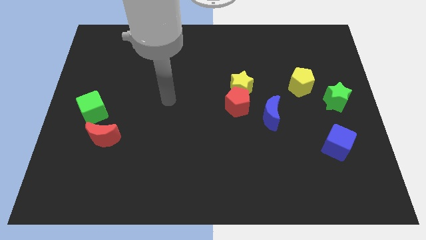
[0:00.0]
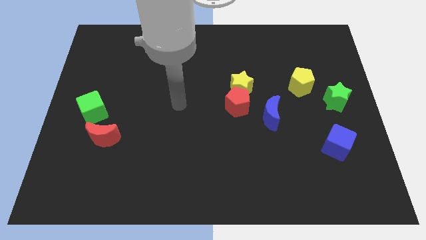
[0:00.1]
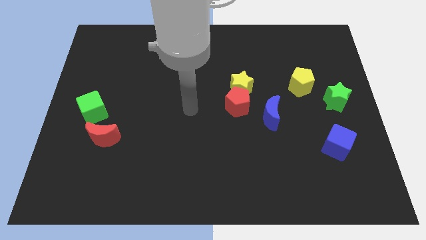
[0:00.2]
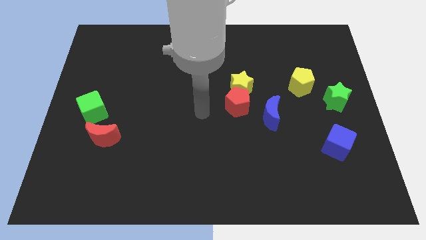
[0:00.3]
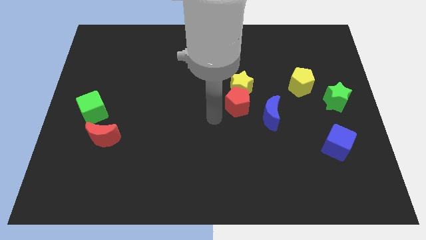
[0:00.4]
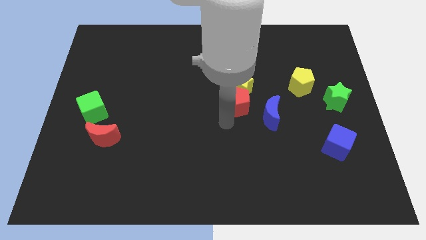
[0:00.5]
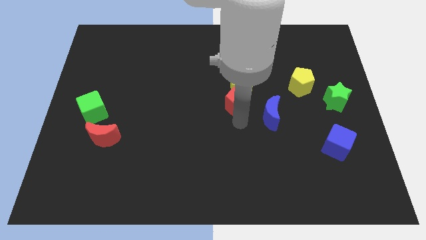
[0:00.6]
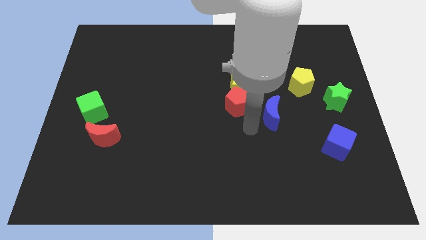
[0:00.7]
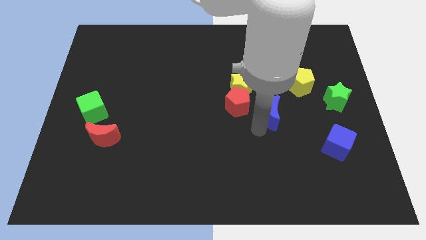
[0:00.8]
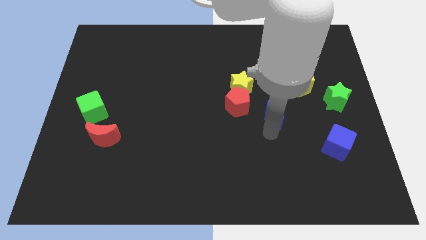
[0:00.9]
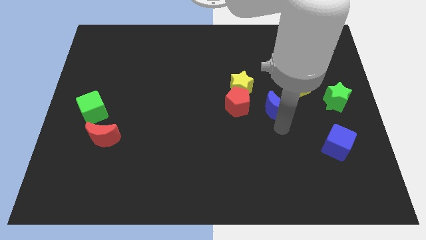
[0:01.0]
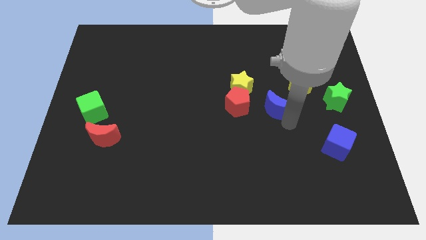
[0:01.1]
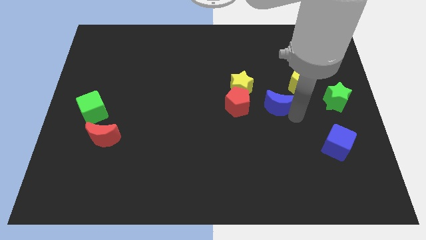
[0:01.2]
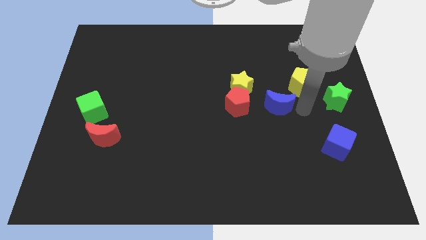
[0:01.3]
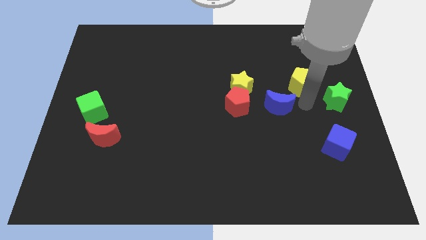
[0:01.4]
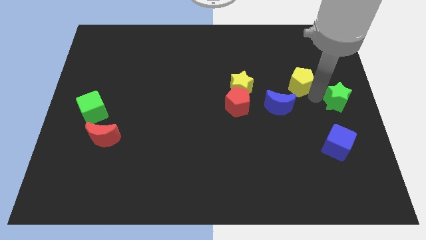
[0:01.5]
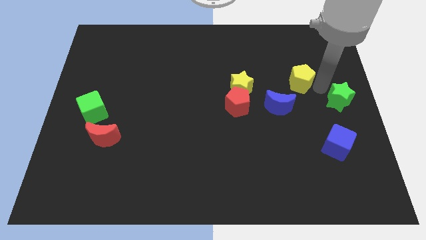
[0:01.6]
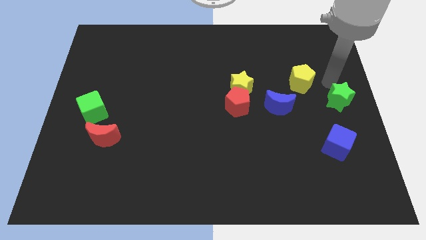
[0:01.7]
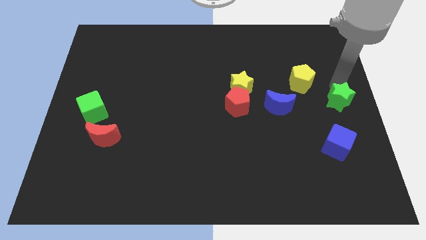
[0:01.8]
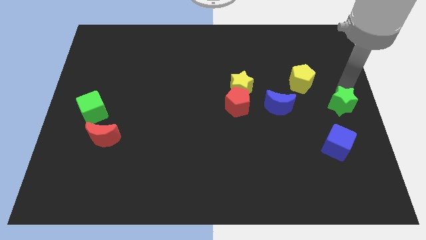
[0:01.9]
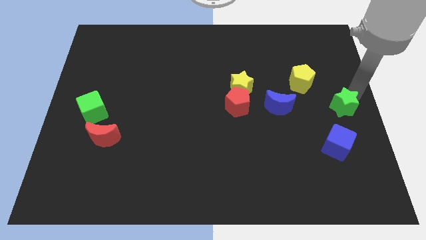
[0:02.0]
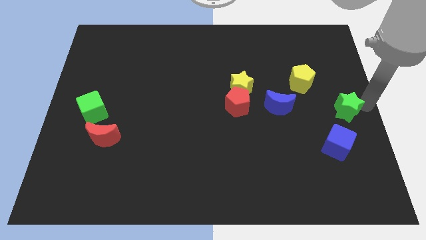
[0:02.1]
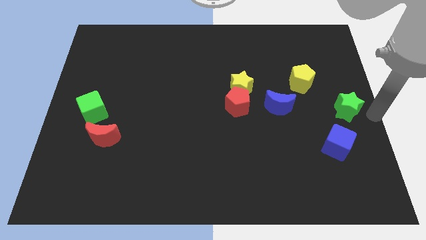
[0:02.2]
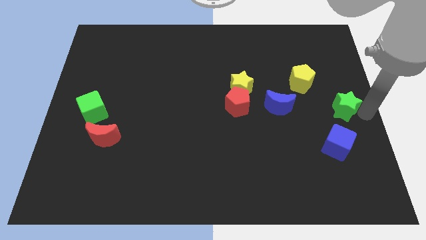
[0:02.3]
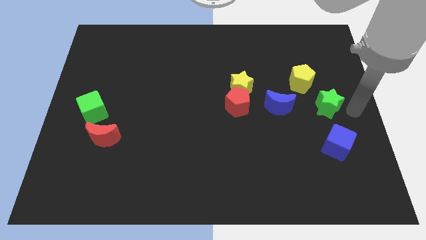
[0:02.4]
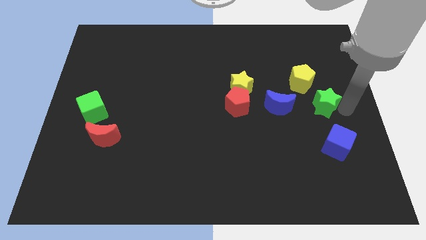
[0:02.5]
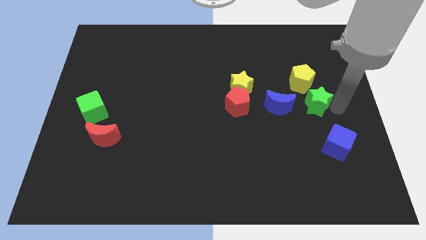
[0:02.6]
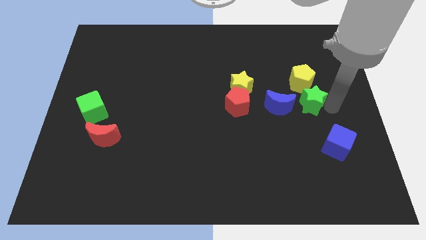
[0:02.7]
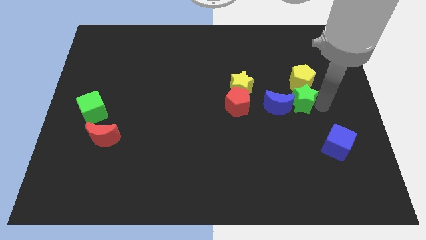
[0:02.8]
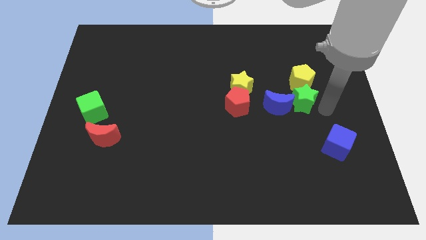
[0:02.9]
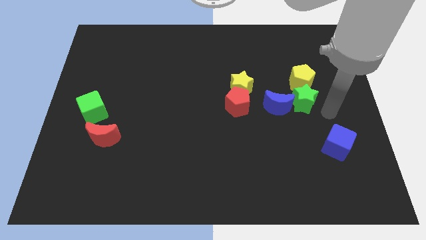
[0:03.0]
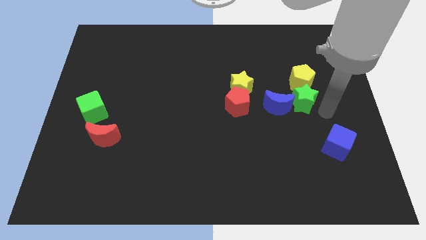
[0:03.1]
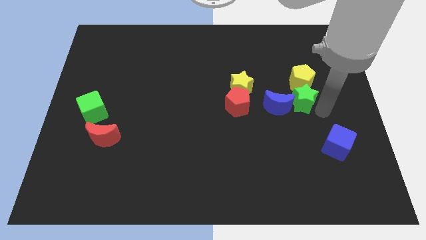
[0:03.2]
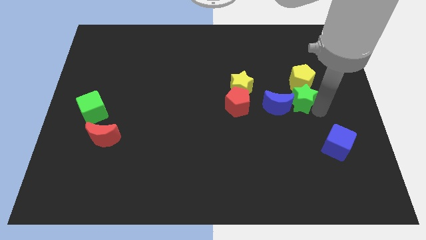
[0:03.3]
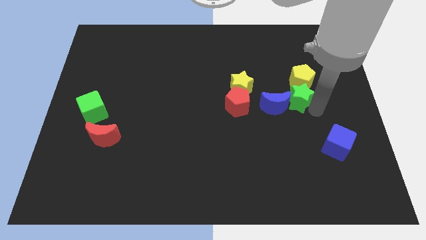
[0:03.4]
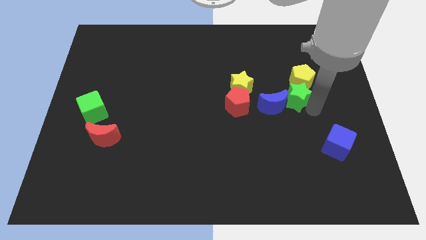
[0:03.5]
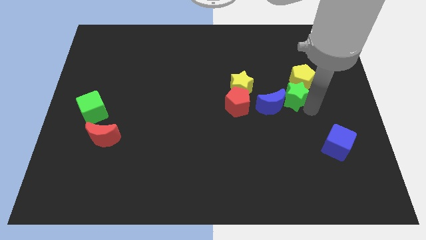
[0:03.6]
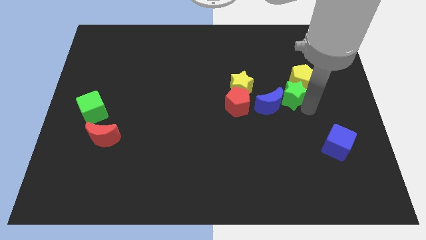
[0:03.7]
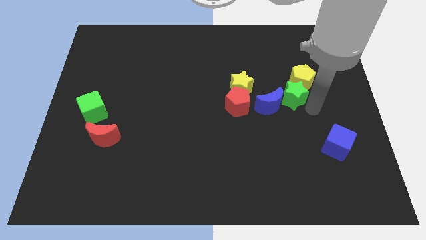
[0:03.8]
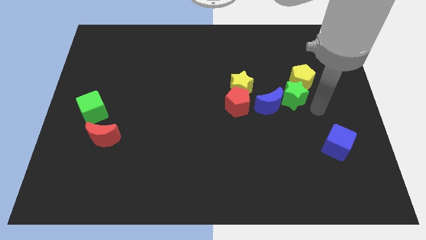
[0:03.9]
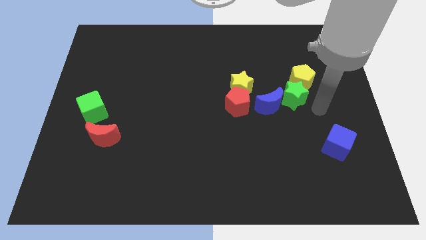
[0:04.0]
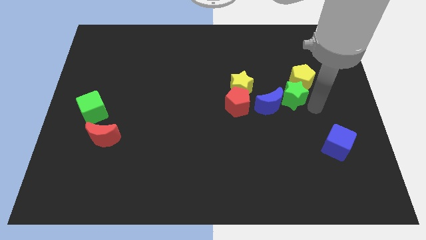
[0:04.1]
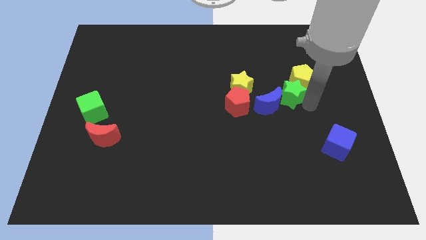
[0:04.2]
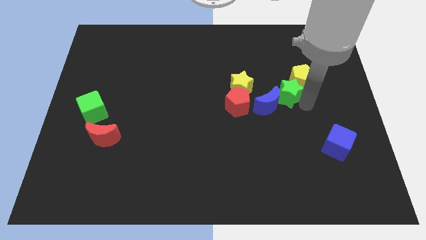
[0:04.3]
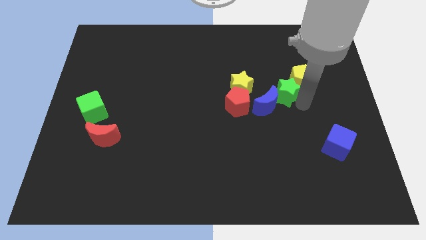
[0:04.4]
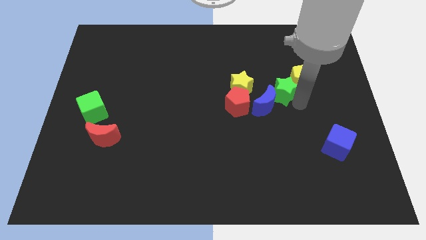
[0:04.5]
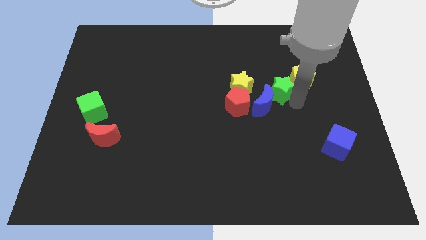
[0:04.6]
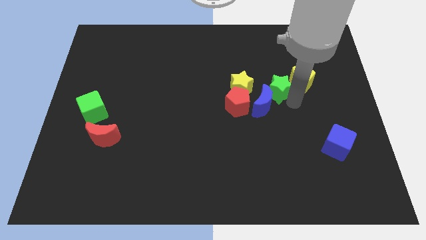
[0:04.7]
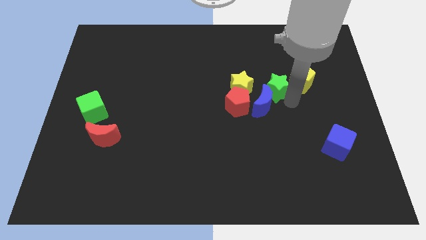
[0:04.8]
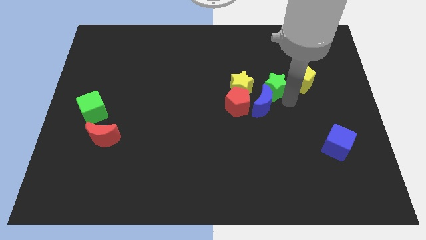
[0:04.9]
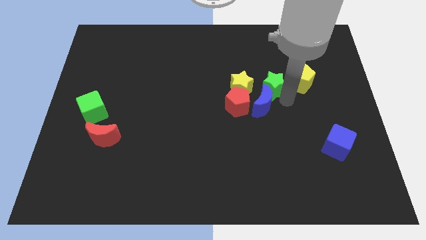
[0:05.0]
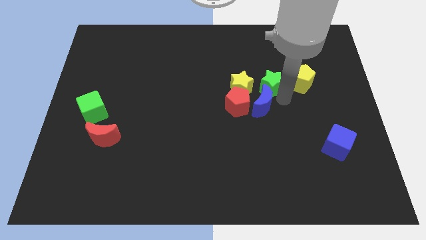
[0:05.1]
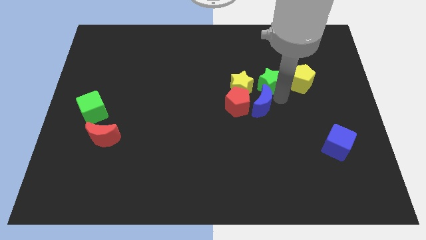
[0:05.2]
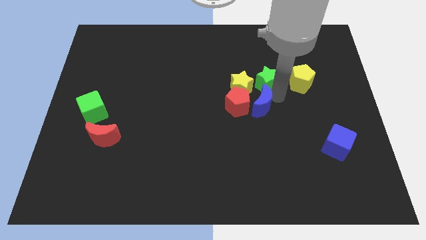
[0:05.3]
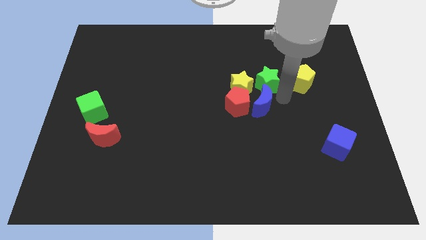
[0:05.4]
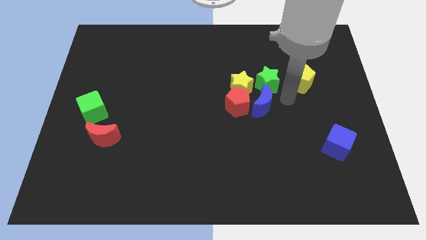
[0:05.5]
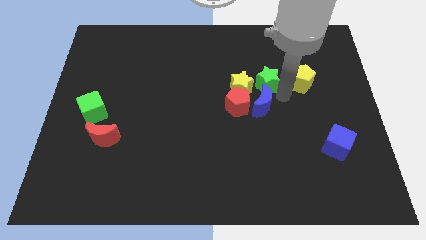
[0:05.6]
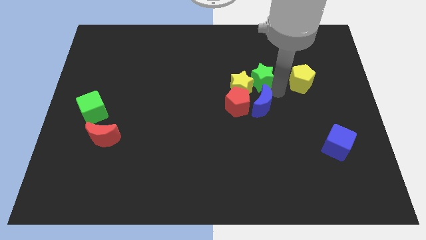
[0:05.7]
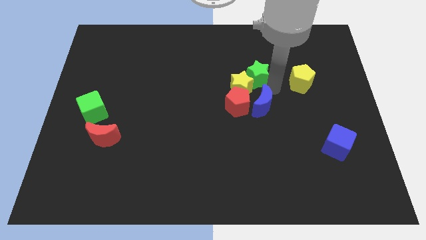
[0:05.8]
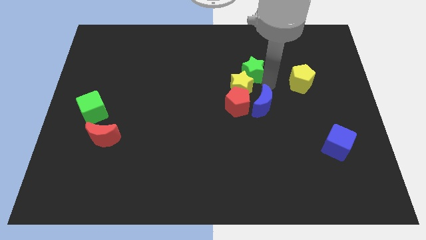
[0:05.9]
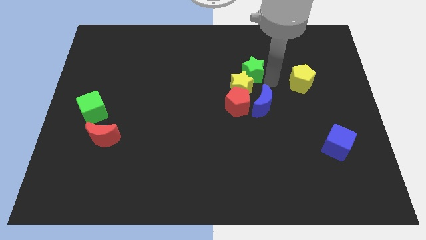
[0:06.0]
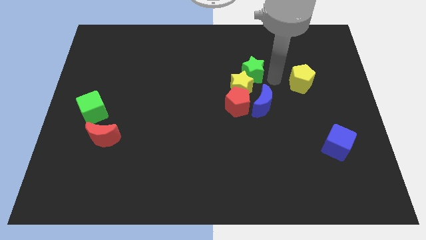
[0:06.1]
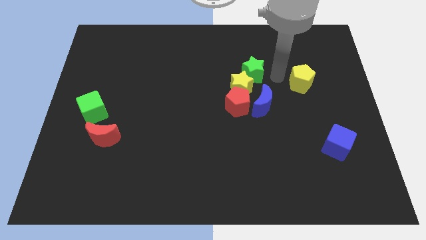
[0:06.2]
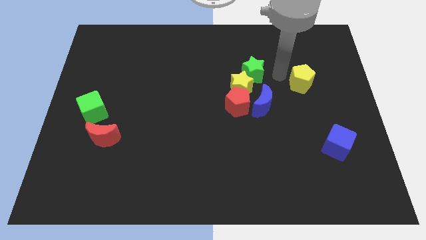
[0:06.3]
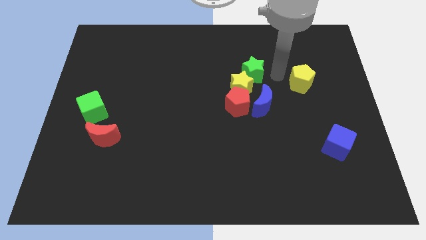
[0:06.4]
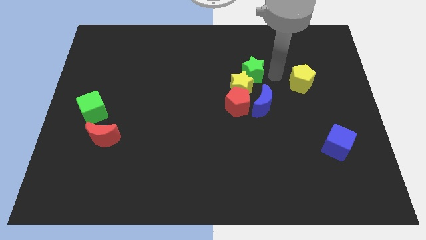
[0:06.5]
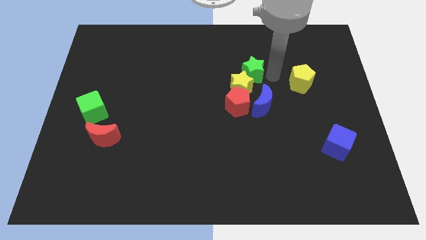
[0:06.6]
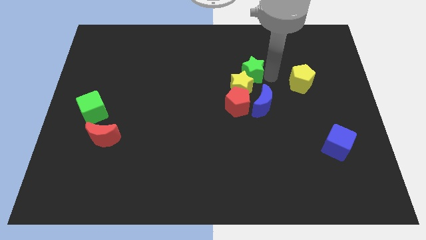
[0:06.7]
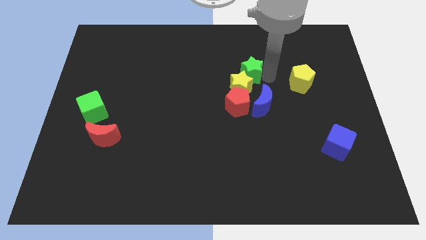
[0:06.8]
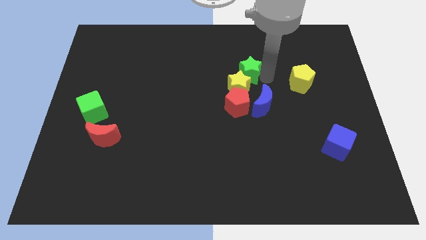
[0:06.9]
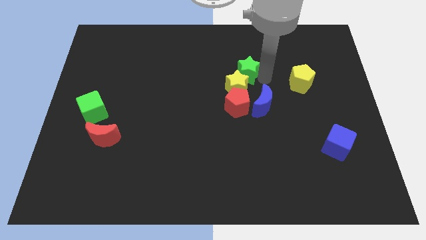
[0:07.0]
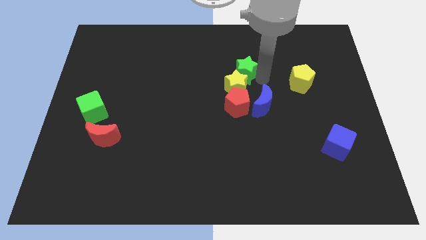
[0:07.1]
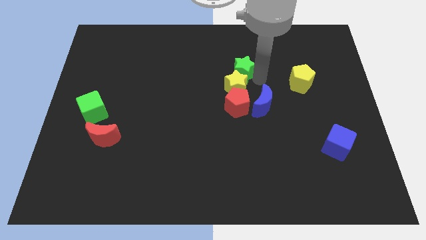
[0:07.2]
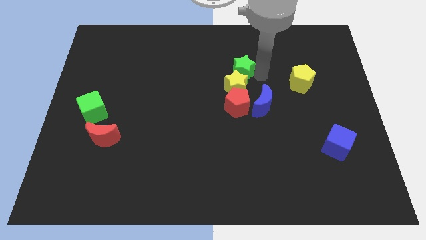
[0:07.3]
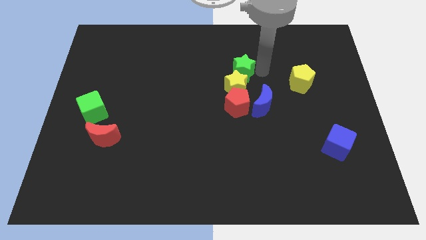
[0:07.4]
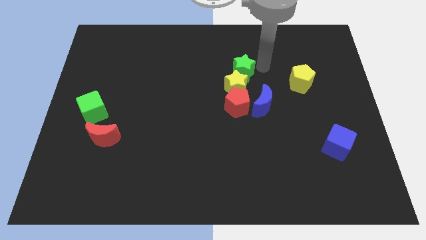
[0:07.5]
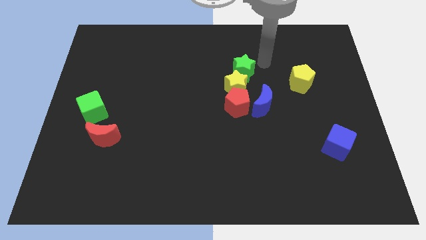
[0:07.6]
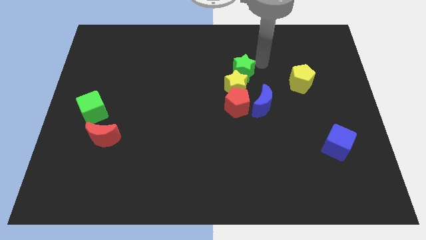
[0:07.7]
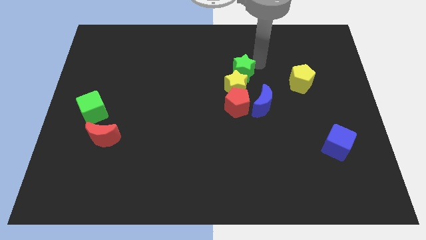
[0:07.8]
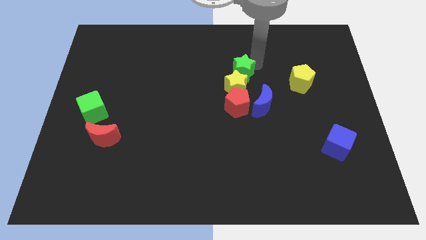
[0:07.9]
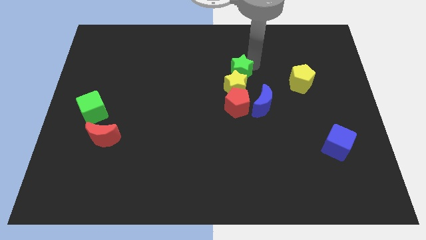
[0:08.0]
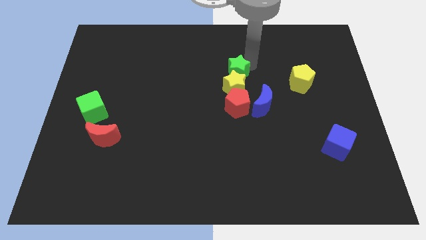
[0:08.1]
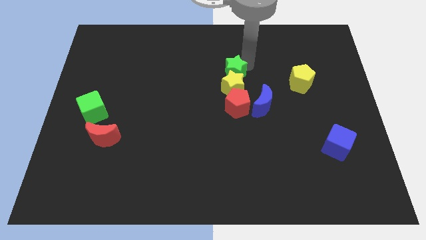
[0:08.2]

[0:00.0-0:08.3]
slide the green star to the left
